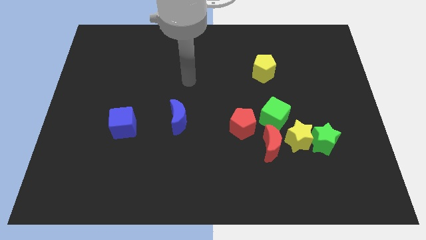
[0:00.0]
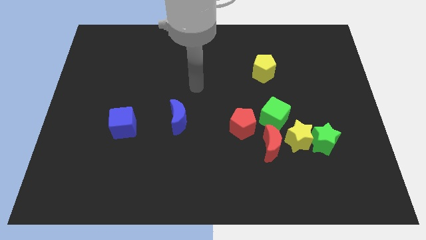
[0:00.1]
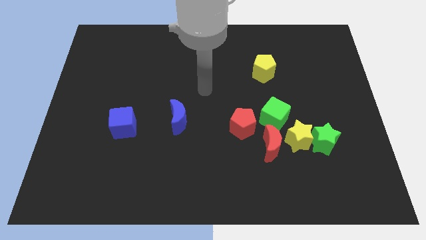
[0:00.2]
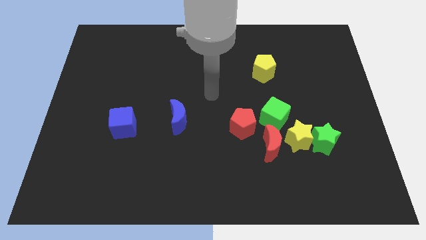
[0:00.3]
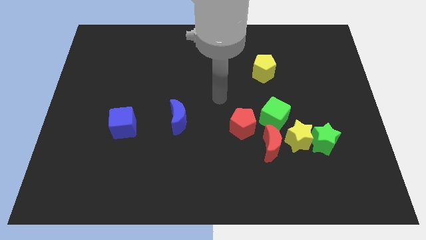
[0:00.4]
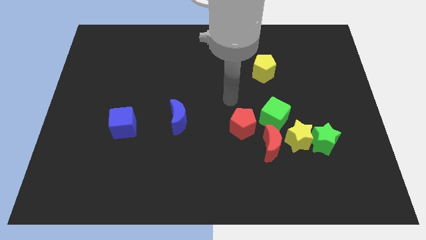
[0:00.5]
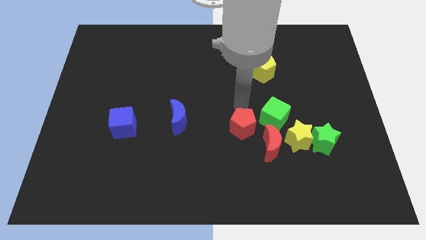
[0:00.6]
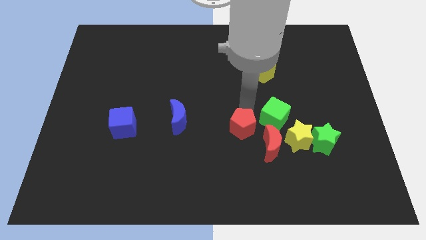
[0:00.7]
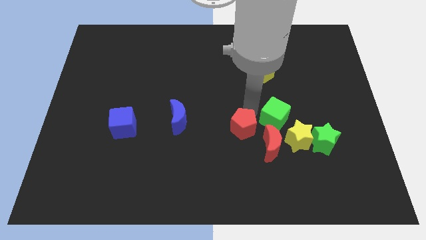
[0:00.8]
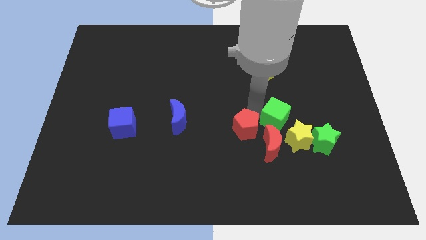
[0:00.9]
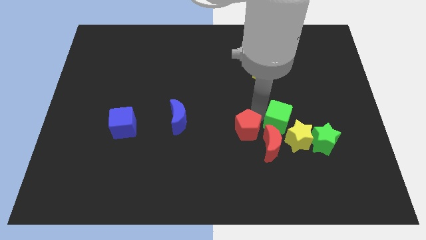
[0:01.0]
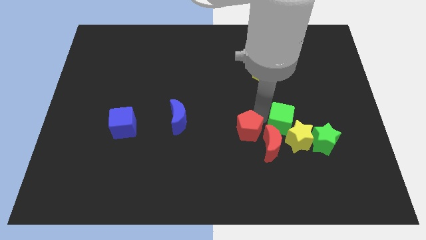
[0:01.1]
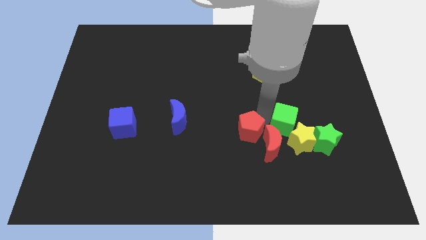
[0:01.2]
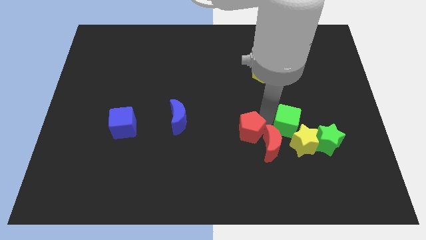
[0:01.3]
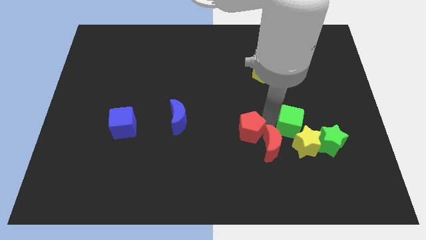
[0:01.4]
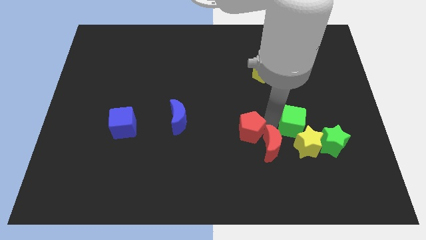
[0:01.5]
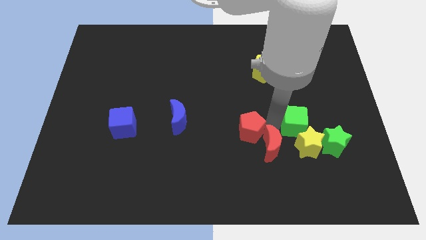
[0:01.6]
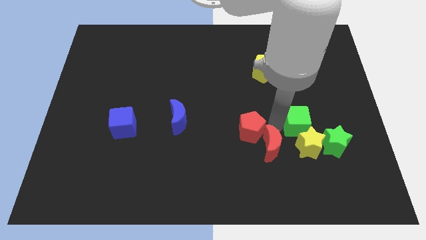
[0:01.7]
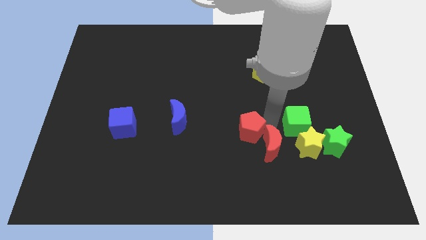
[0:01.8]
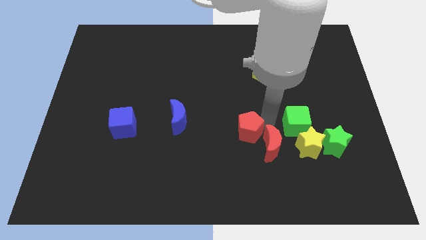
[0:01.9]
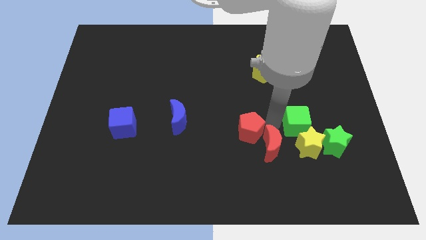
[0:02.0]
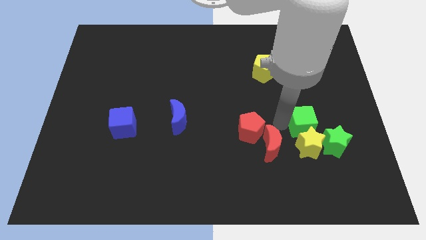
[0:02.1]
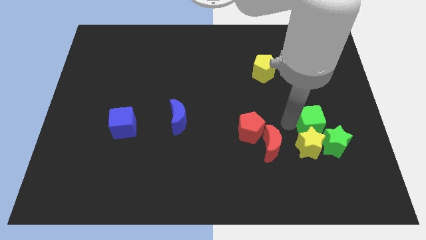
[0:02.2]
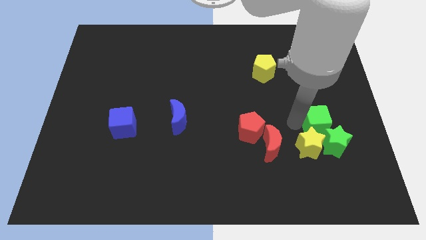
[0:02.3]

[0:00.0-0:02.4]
slightly move the green cube downwards and right diagonally

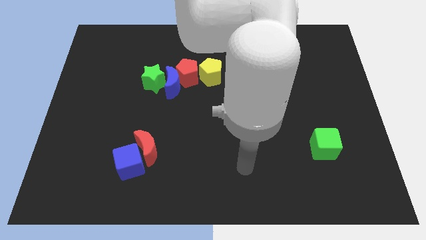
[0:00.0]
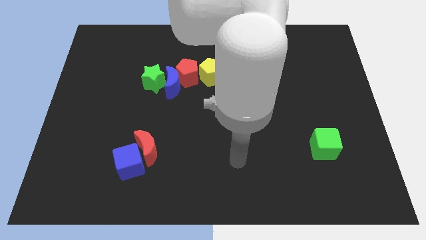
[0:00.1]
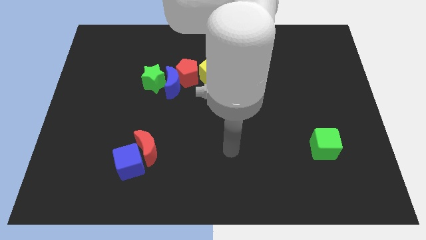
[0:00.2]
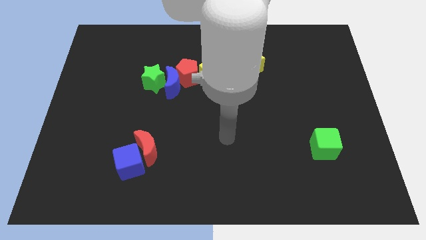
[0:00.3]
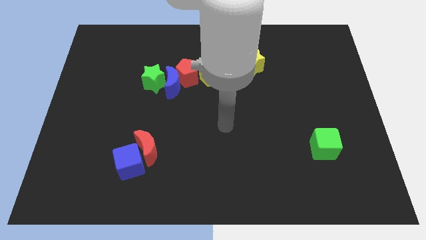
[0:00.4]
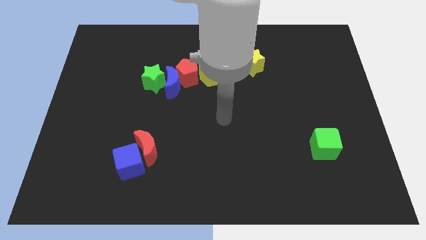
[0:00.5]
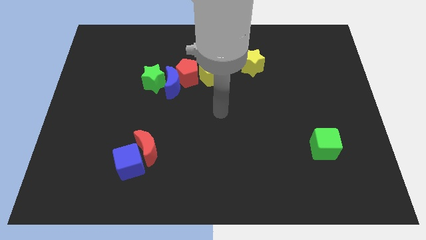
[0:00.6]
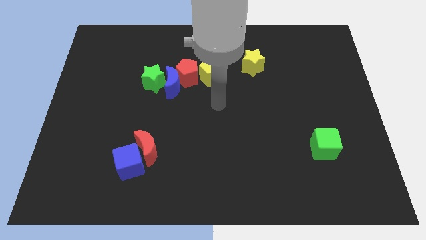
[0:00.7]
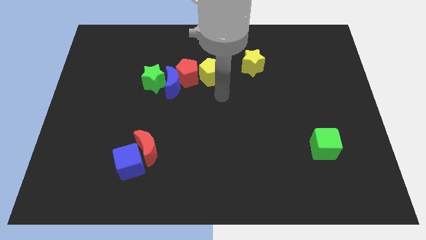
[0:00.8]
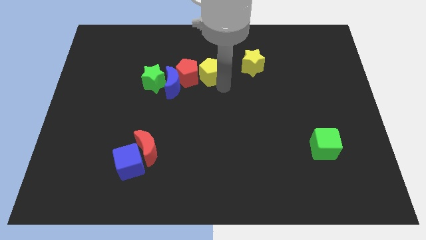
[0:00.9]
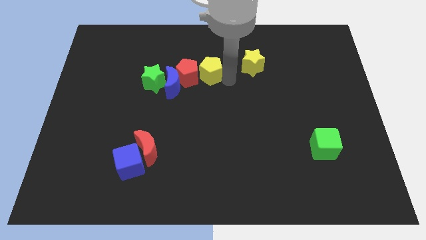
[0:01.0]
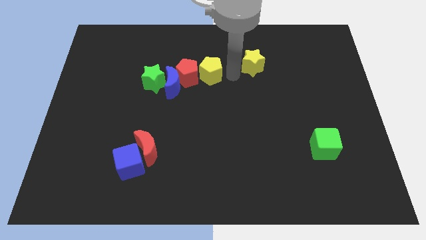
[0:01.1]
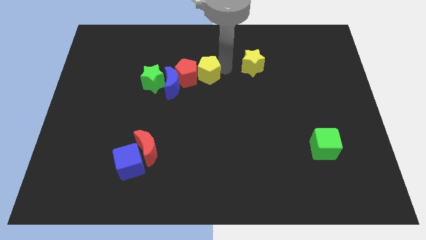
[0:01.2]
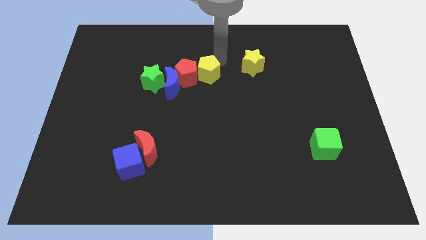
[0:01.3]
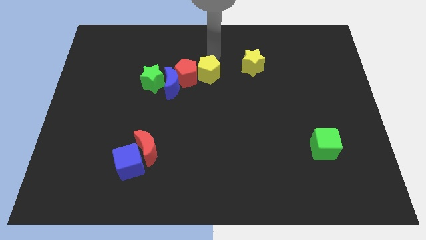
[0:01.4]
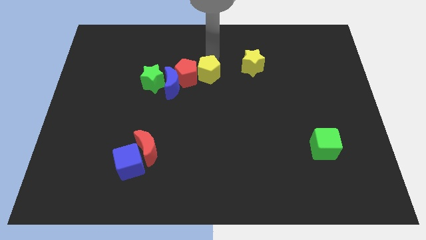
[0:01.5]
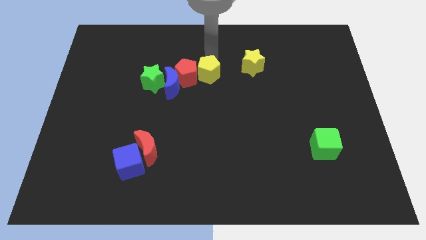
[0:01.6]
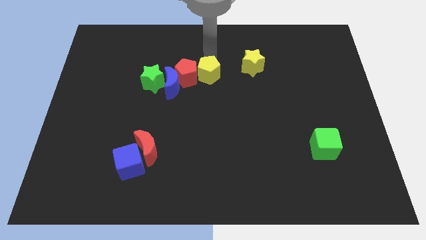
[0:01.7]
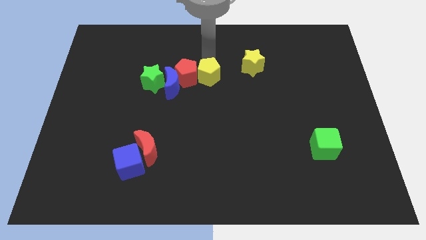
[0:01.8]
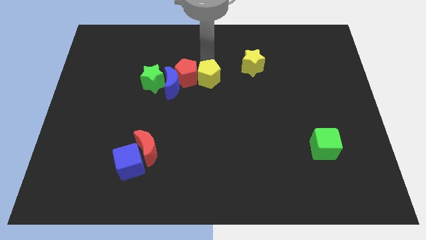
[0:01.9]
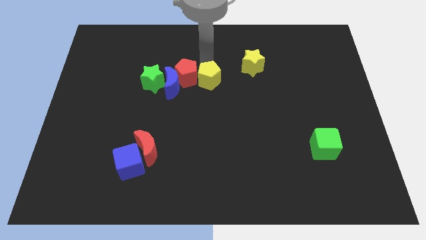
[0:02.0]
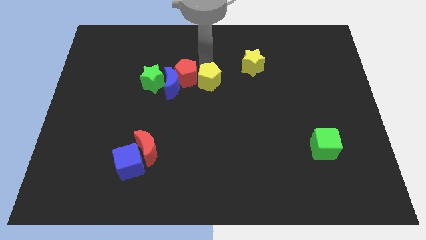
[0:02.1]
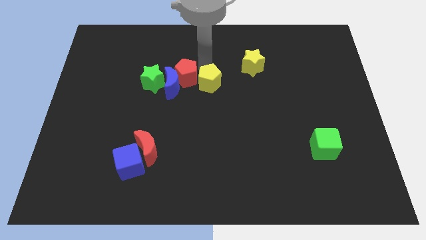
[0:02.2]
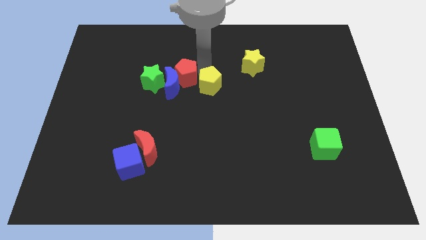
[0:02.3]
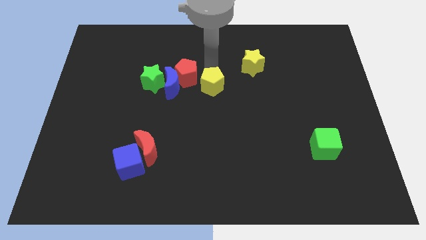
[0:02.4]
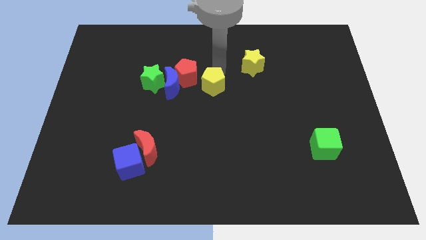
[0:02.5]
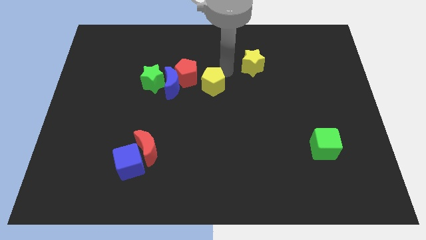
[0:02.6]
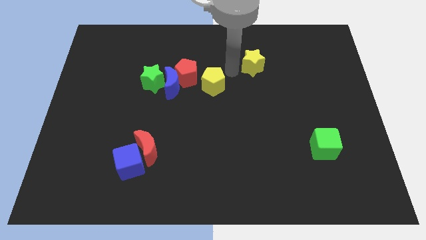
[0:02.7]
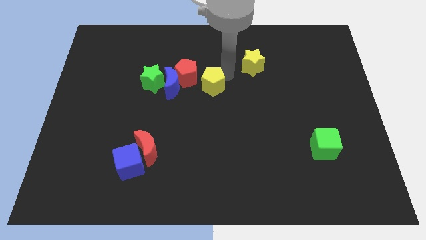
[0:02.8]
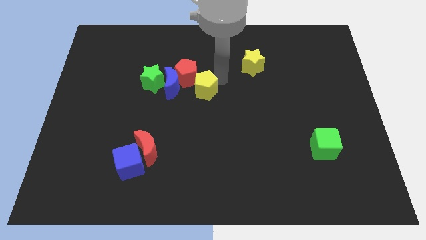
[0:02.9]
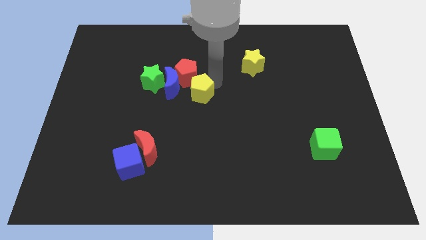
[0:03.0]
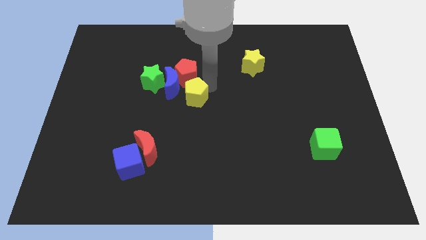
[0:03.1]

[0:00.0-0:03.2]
slightly move the yellow pentagon downwards and then left

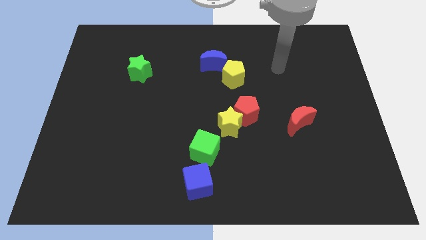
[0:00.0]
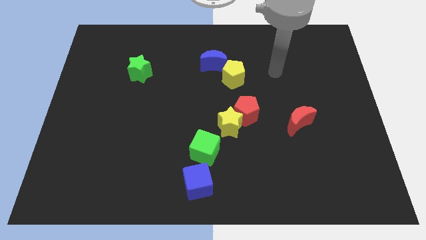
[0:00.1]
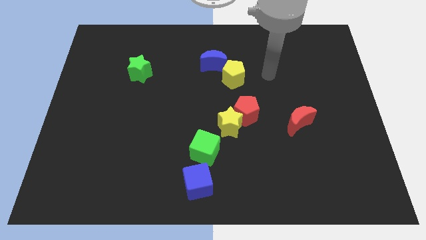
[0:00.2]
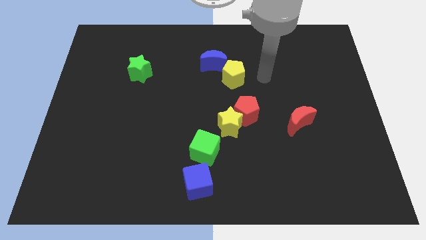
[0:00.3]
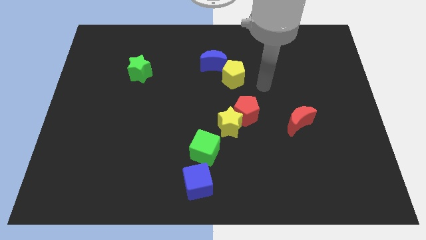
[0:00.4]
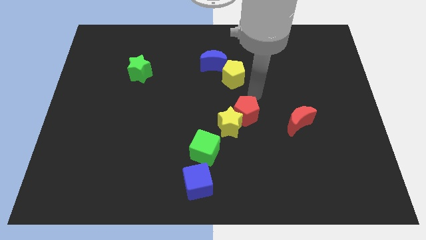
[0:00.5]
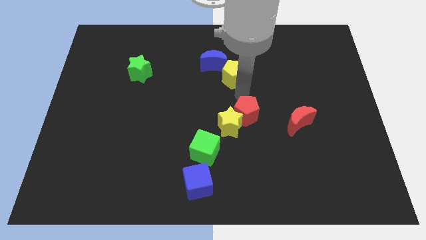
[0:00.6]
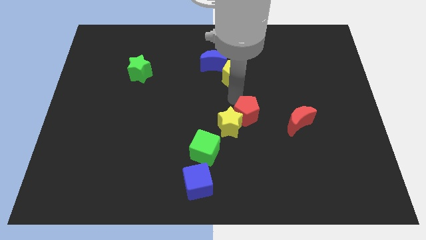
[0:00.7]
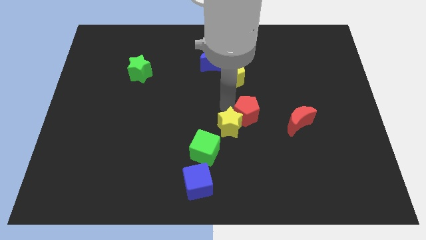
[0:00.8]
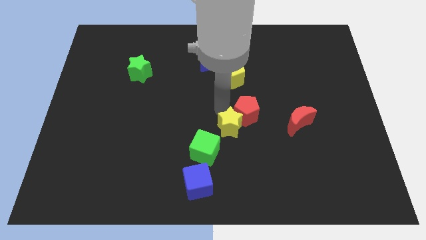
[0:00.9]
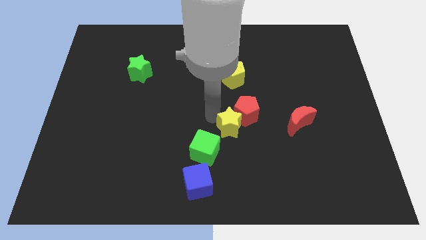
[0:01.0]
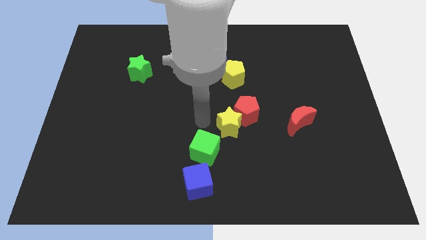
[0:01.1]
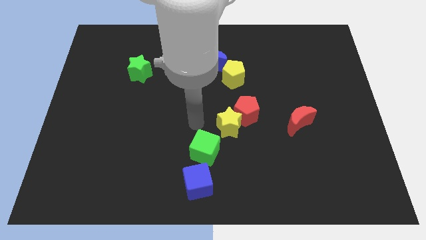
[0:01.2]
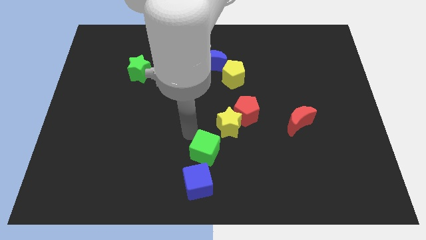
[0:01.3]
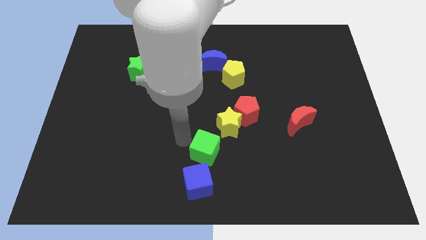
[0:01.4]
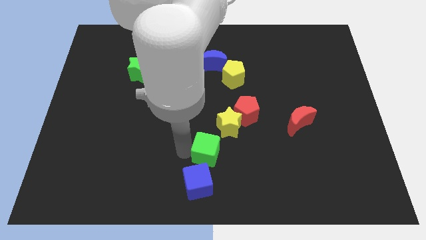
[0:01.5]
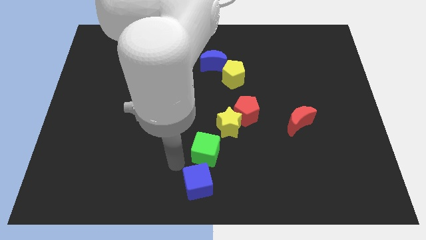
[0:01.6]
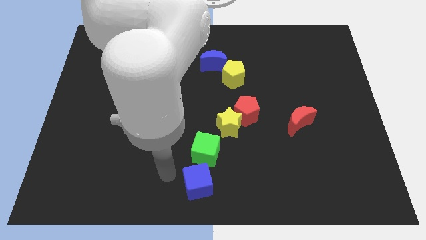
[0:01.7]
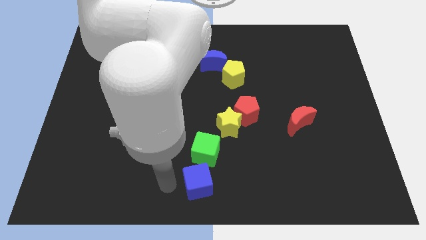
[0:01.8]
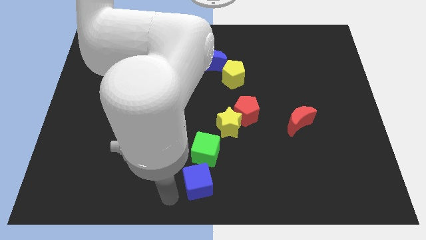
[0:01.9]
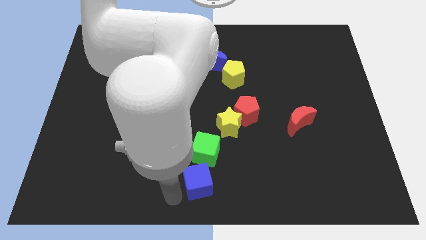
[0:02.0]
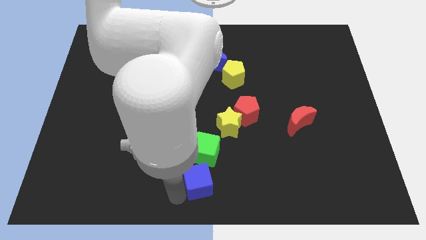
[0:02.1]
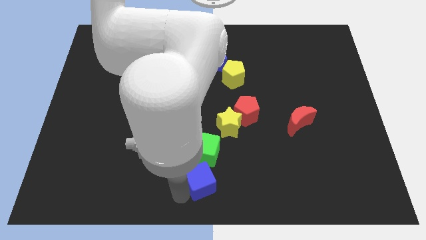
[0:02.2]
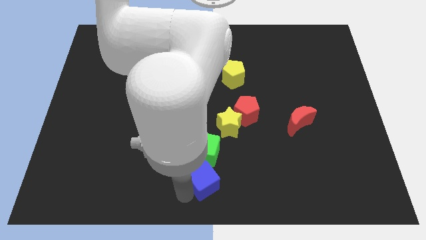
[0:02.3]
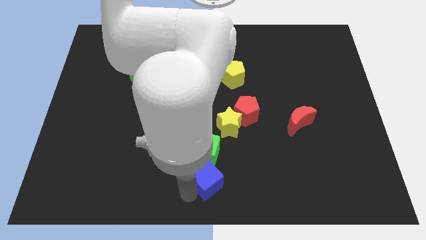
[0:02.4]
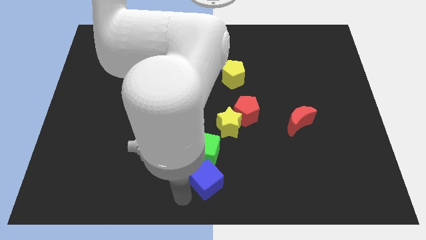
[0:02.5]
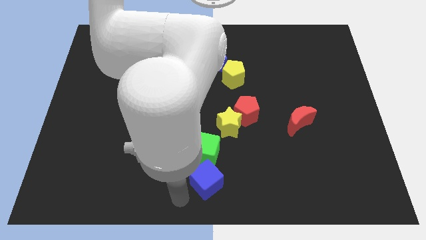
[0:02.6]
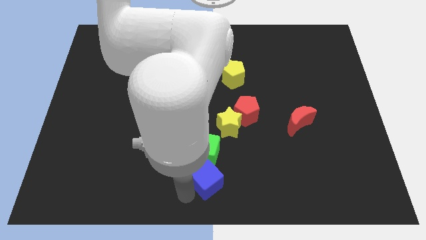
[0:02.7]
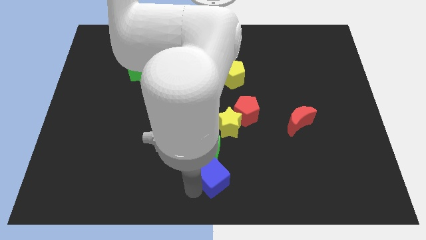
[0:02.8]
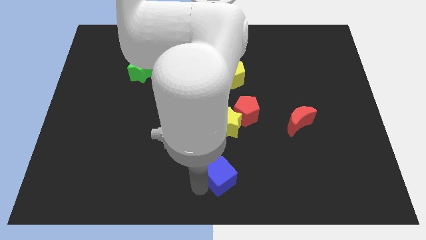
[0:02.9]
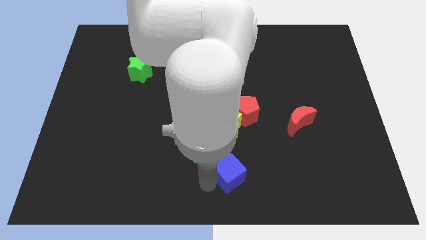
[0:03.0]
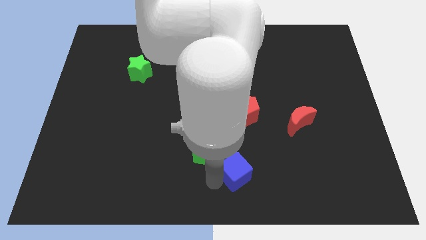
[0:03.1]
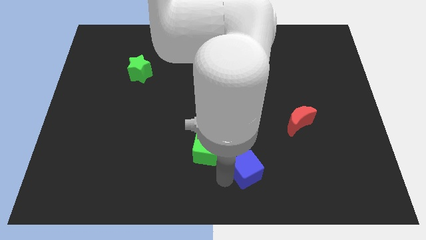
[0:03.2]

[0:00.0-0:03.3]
move the blue cube upwards and right slightly
